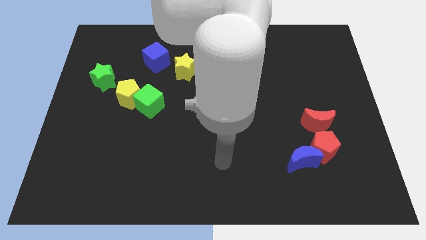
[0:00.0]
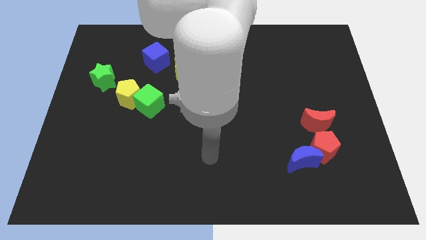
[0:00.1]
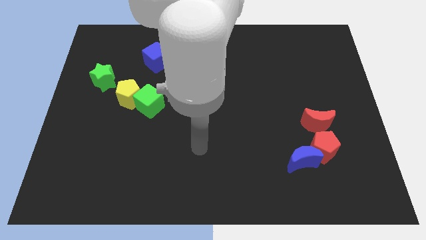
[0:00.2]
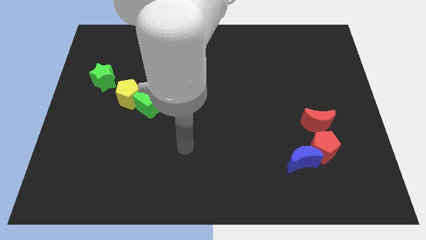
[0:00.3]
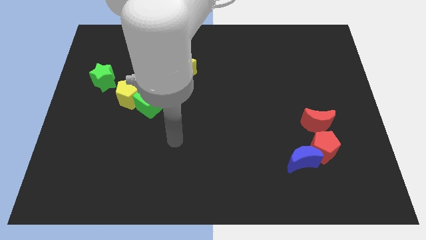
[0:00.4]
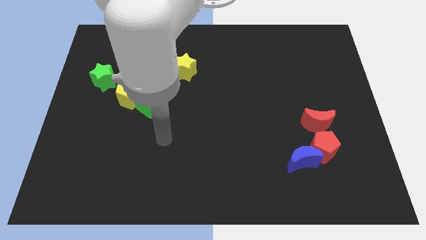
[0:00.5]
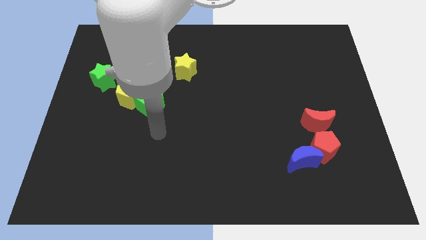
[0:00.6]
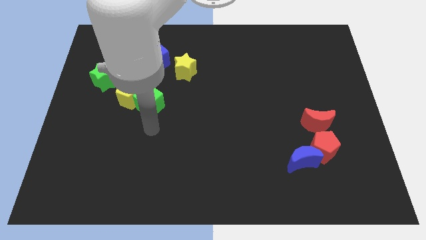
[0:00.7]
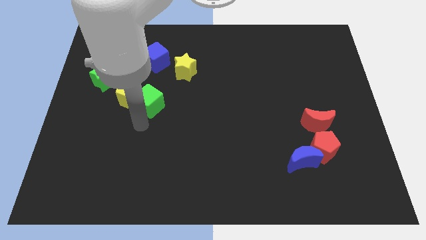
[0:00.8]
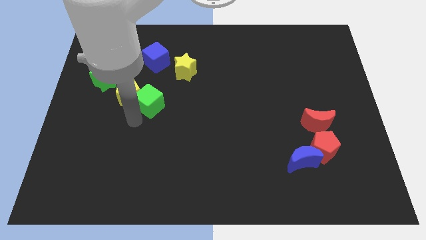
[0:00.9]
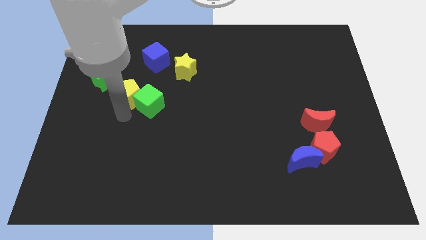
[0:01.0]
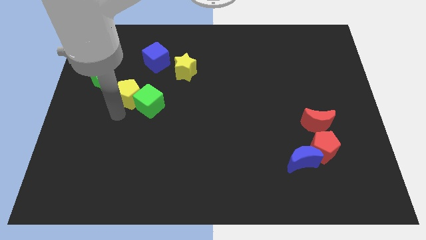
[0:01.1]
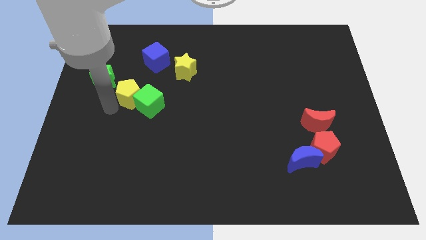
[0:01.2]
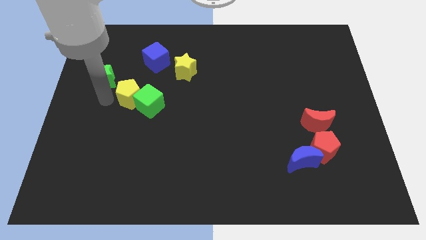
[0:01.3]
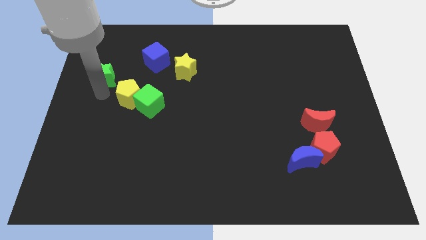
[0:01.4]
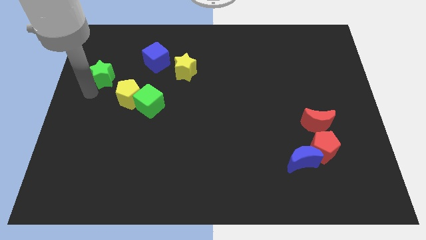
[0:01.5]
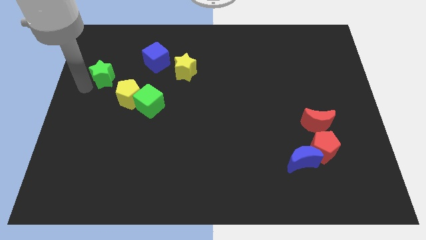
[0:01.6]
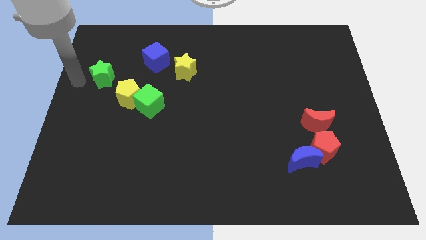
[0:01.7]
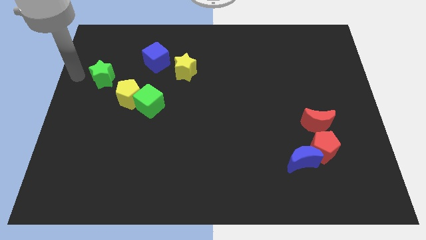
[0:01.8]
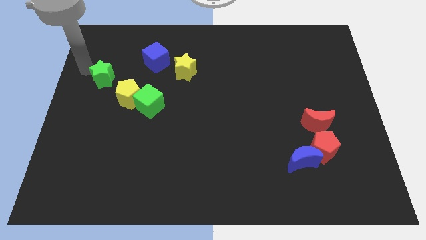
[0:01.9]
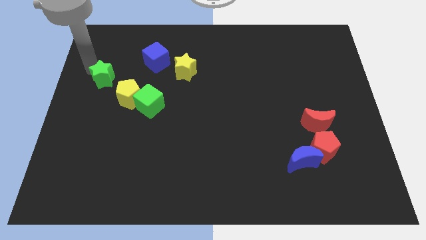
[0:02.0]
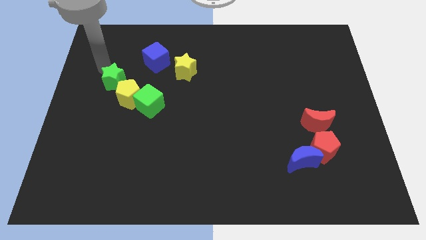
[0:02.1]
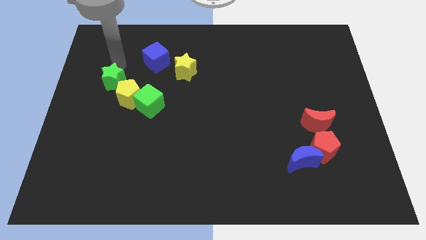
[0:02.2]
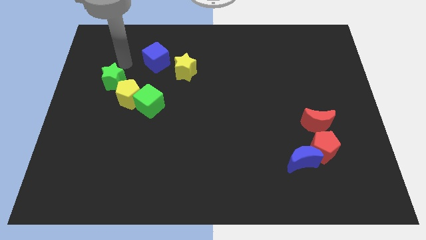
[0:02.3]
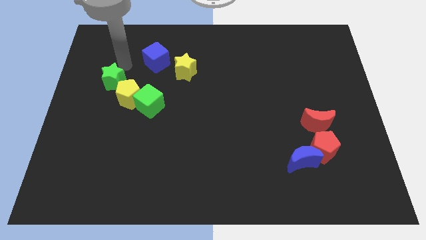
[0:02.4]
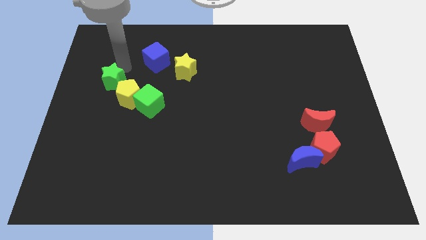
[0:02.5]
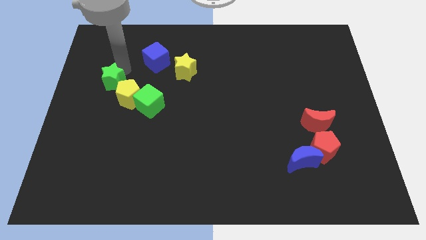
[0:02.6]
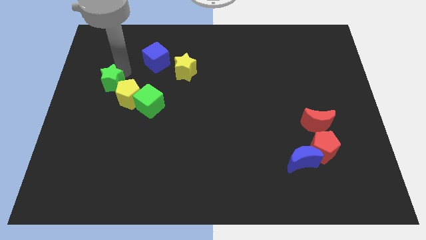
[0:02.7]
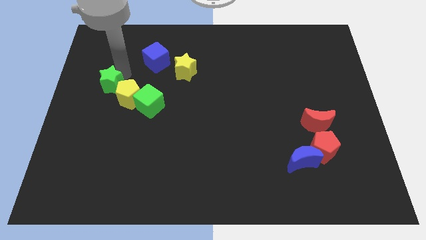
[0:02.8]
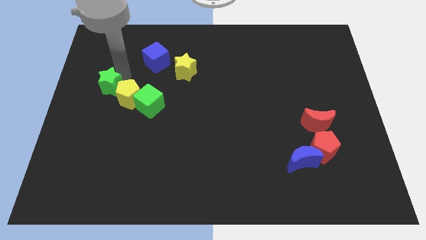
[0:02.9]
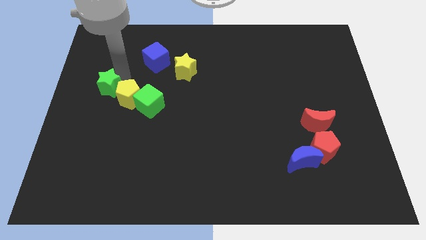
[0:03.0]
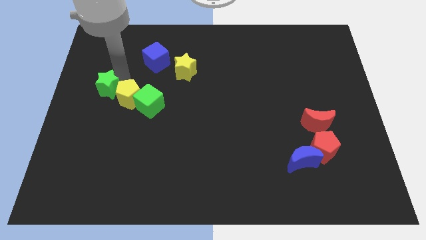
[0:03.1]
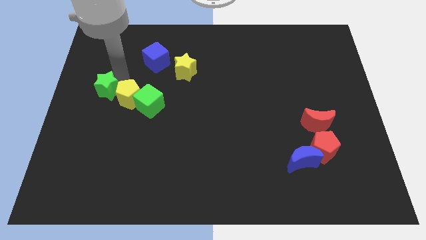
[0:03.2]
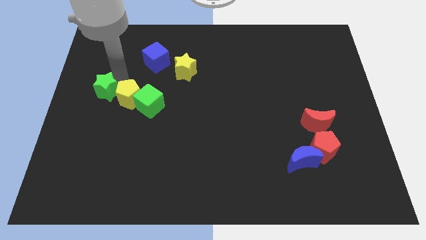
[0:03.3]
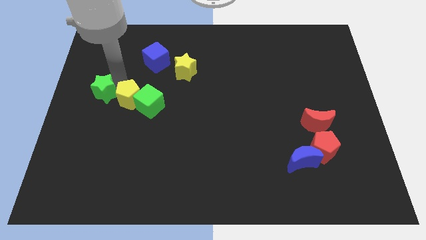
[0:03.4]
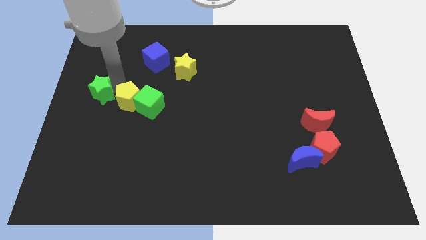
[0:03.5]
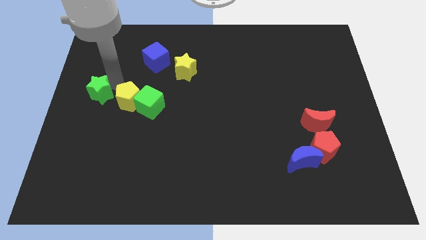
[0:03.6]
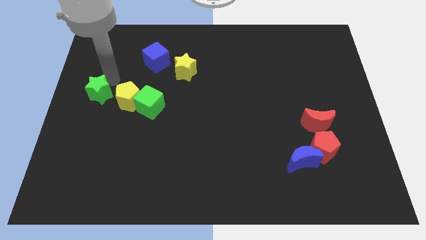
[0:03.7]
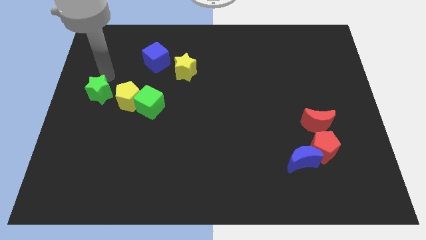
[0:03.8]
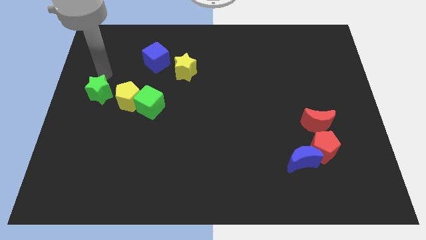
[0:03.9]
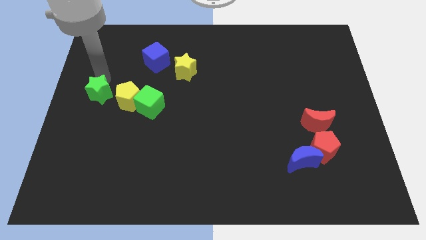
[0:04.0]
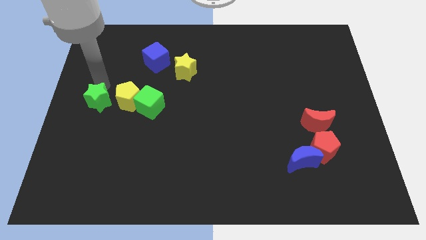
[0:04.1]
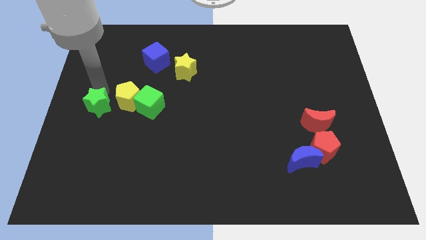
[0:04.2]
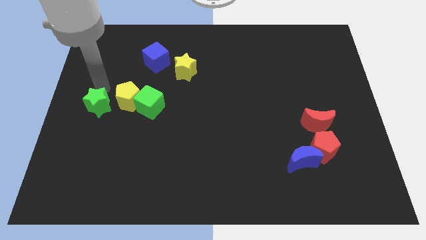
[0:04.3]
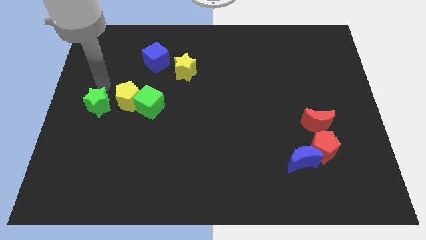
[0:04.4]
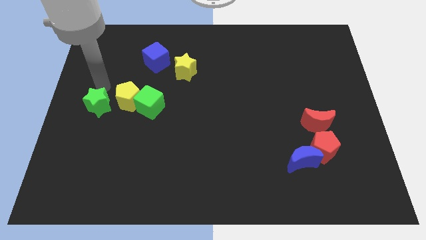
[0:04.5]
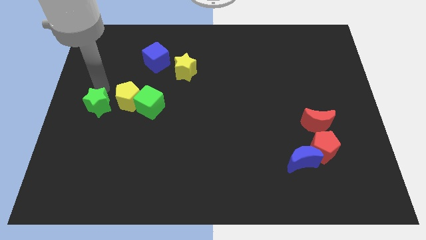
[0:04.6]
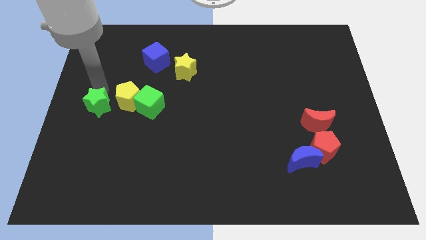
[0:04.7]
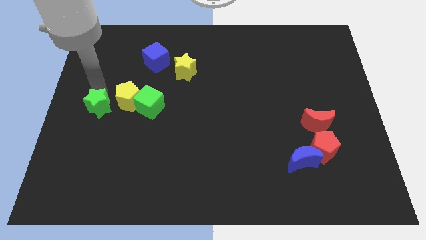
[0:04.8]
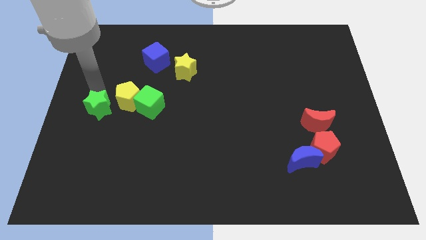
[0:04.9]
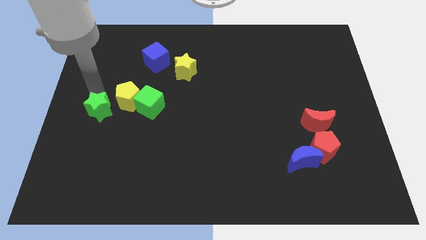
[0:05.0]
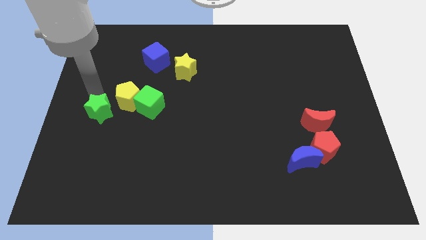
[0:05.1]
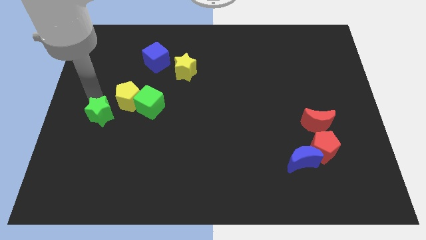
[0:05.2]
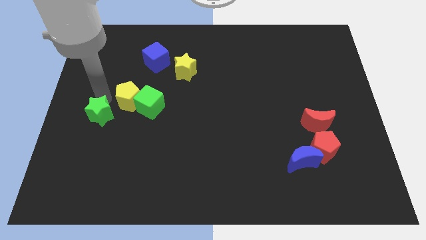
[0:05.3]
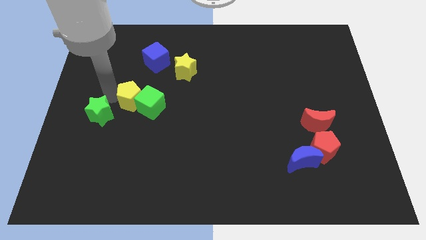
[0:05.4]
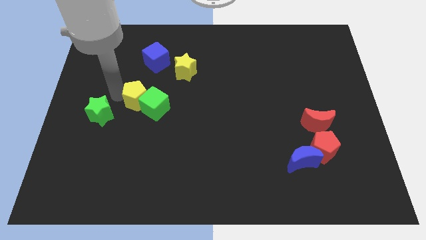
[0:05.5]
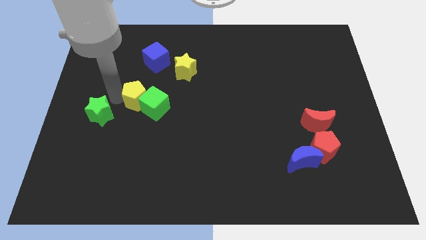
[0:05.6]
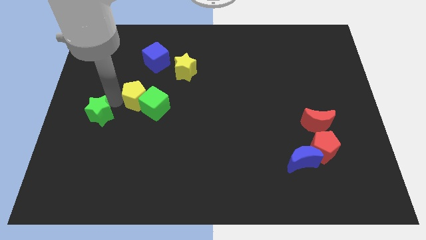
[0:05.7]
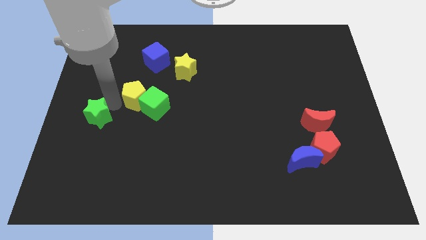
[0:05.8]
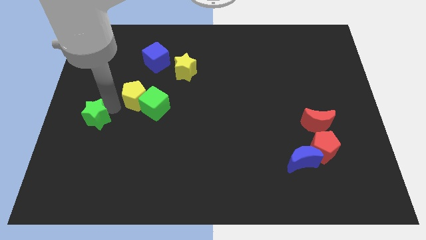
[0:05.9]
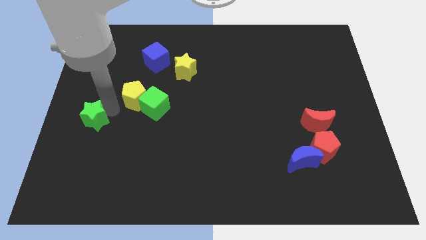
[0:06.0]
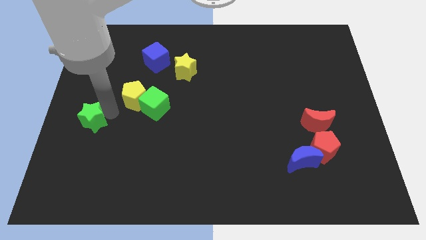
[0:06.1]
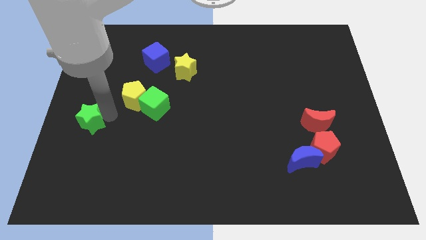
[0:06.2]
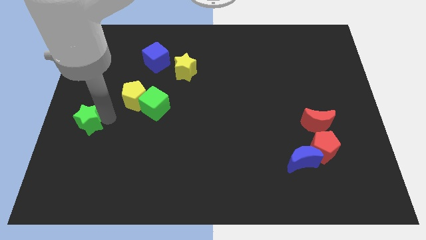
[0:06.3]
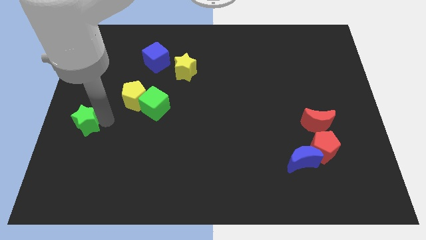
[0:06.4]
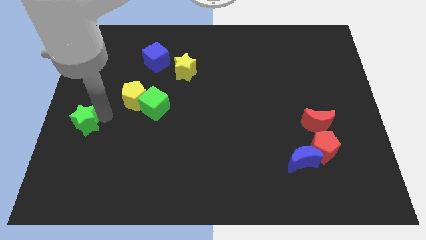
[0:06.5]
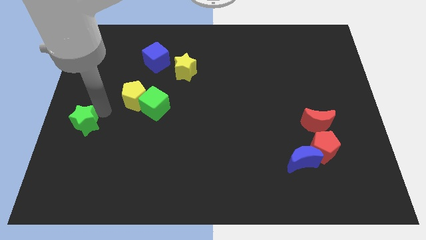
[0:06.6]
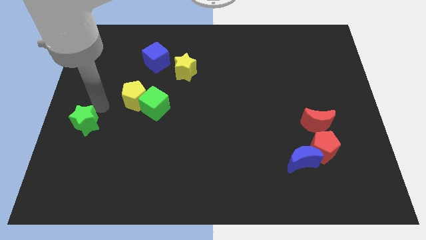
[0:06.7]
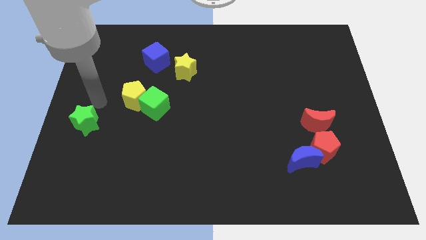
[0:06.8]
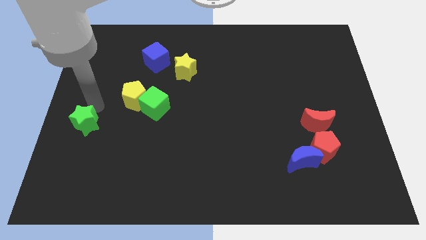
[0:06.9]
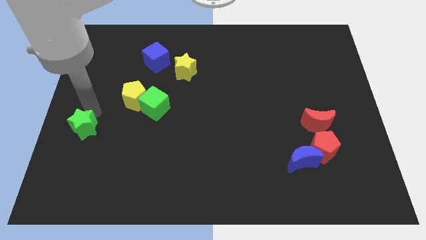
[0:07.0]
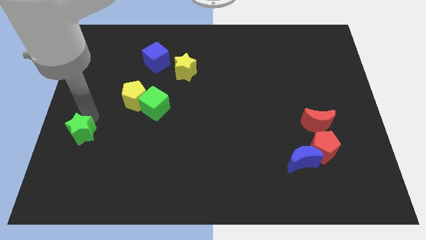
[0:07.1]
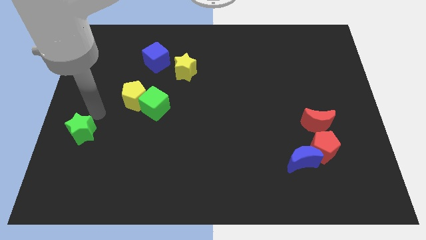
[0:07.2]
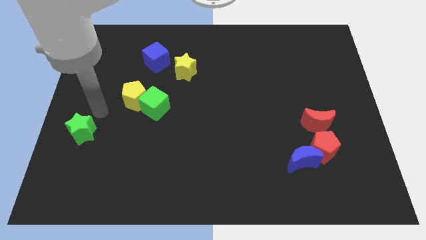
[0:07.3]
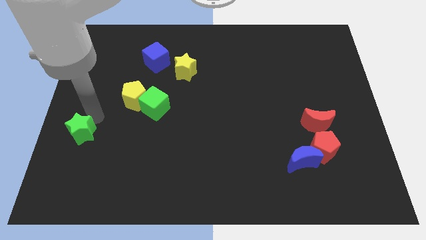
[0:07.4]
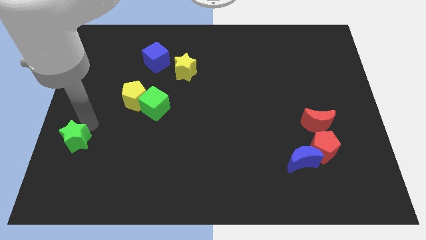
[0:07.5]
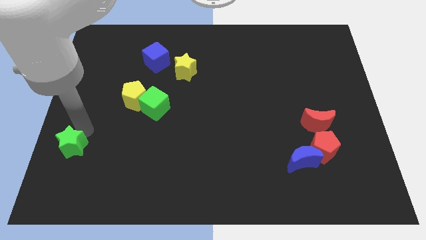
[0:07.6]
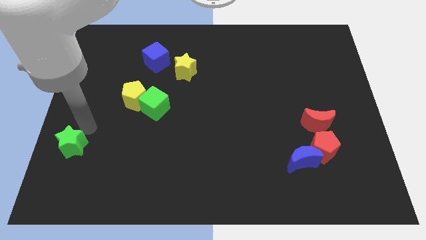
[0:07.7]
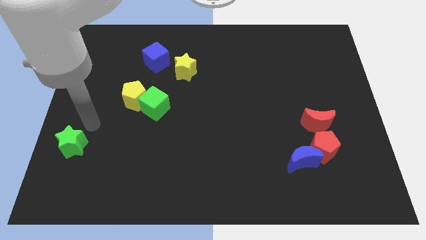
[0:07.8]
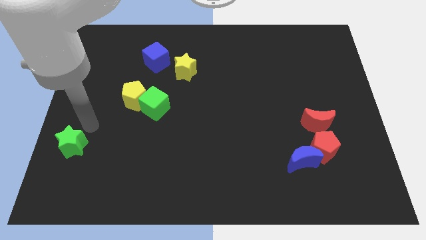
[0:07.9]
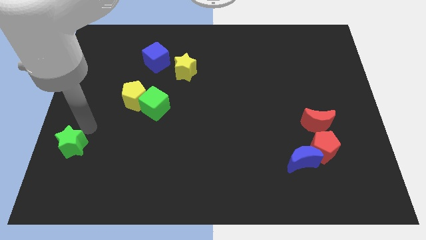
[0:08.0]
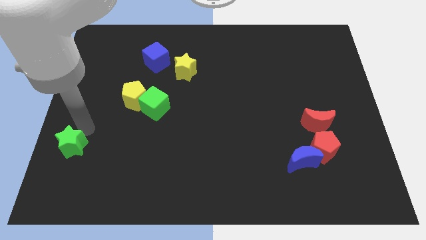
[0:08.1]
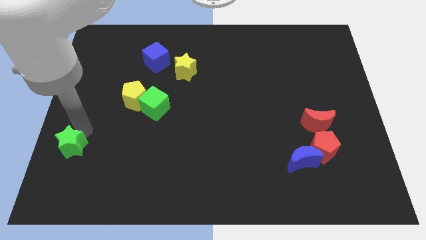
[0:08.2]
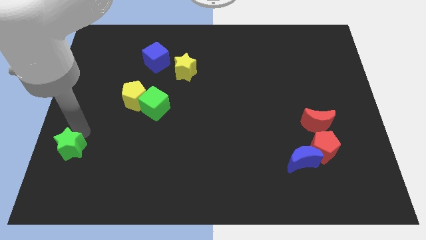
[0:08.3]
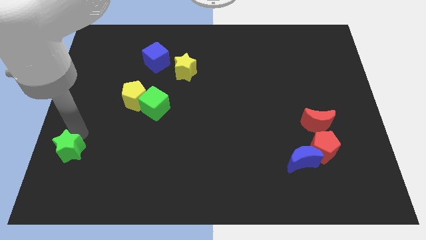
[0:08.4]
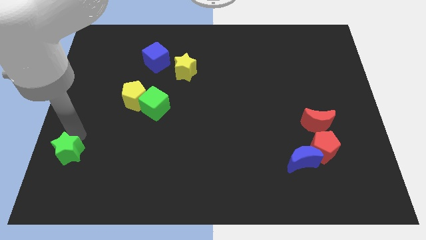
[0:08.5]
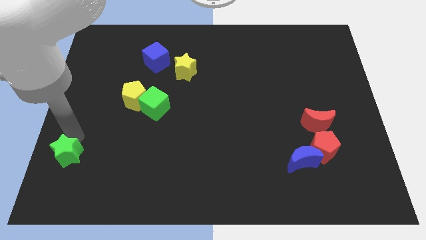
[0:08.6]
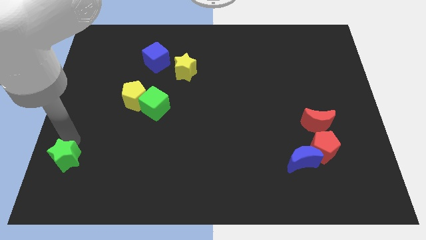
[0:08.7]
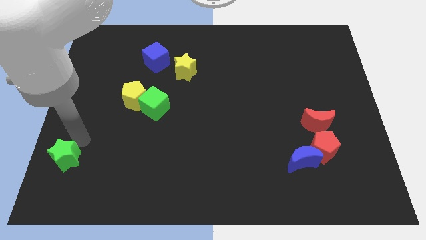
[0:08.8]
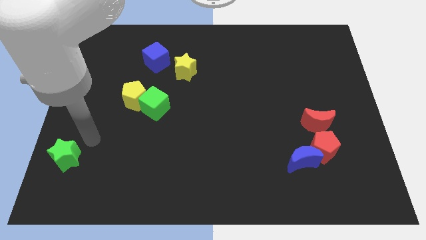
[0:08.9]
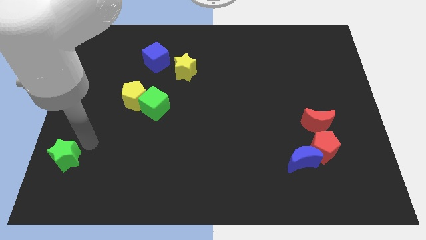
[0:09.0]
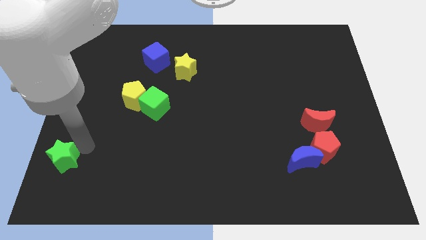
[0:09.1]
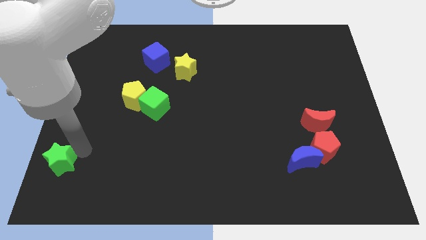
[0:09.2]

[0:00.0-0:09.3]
move the green star to the bottom left of the board
